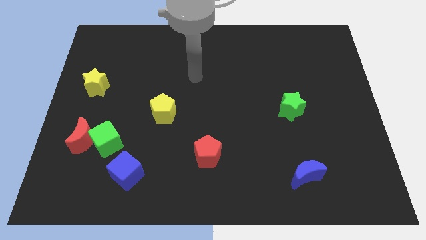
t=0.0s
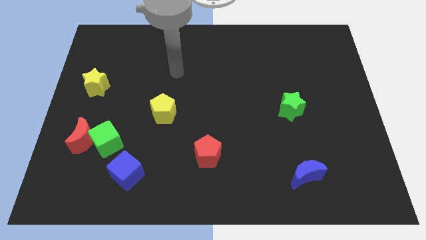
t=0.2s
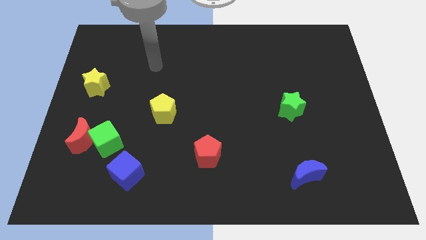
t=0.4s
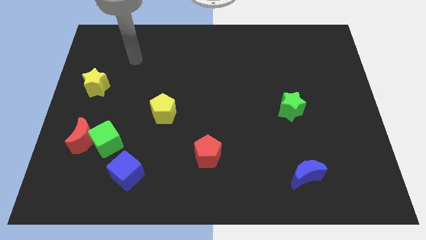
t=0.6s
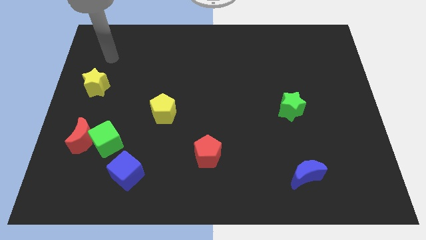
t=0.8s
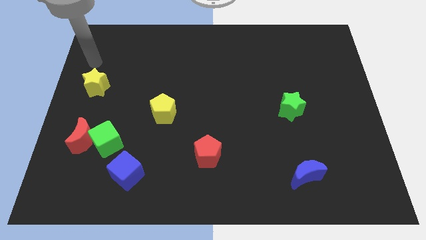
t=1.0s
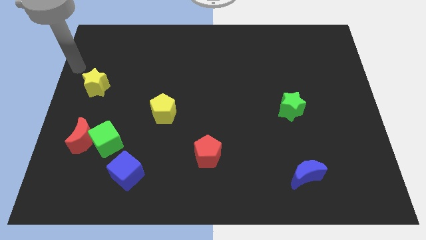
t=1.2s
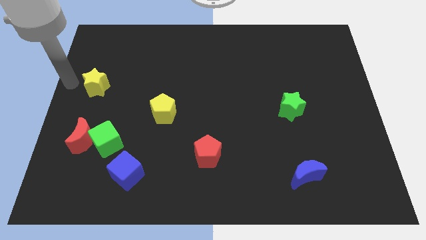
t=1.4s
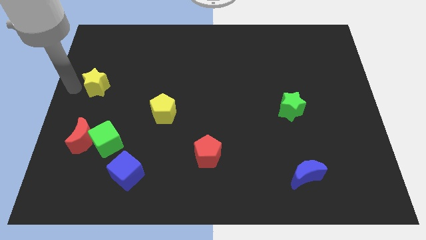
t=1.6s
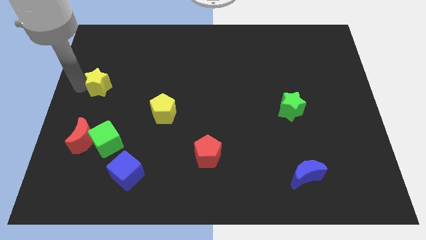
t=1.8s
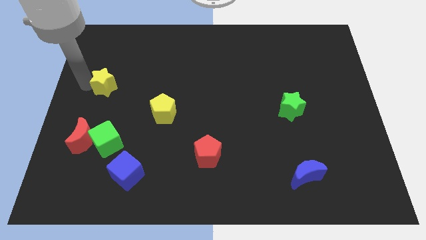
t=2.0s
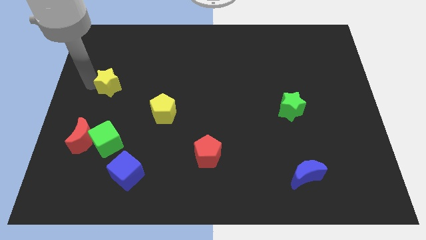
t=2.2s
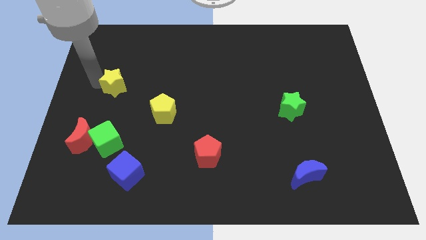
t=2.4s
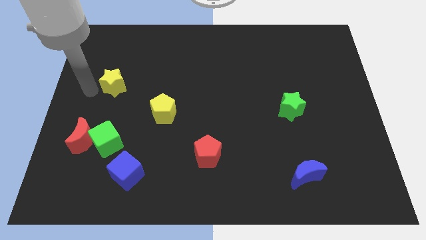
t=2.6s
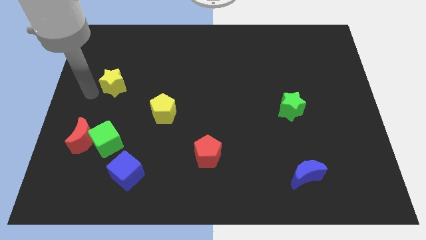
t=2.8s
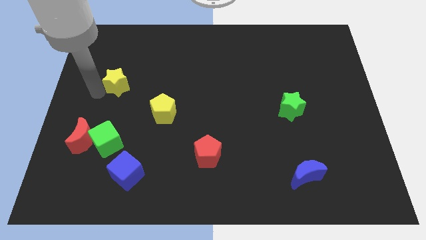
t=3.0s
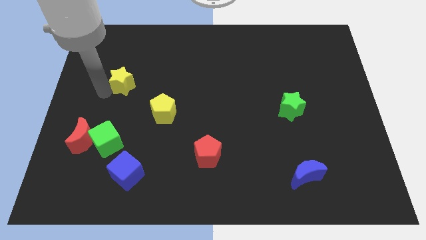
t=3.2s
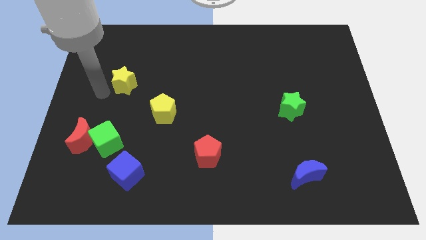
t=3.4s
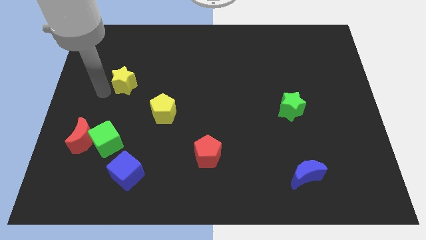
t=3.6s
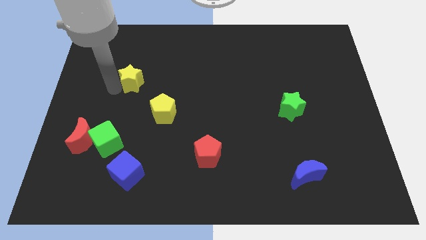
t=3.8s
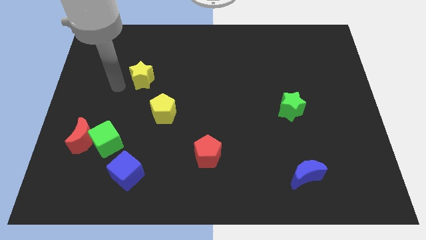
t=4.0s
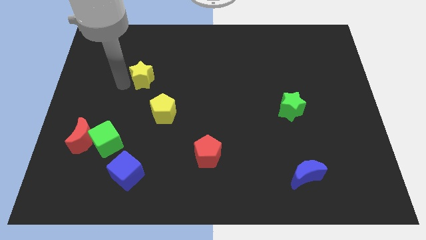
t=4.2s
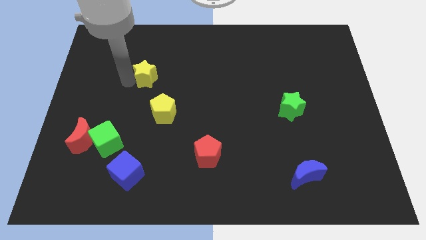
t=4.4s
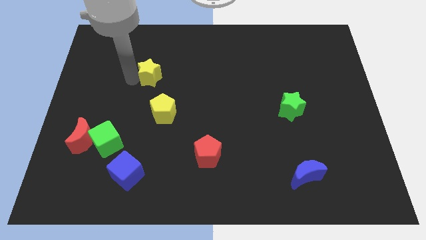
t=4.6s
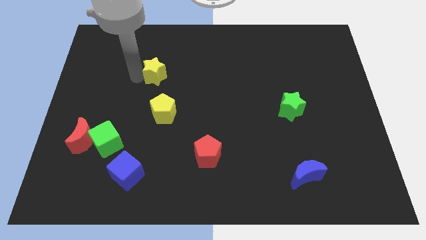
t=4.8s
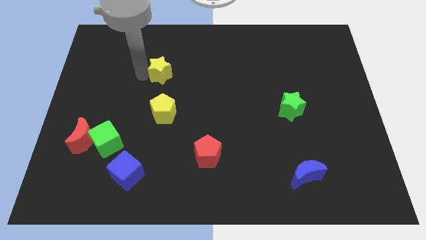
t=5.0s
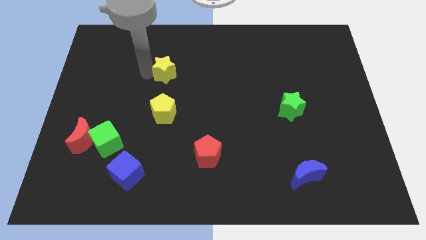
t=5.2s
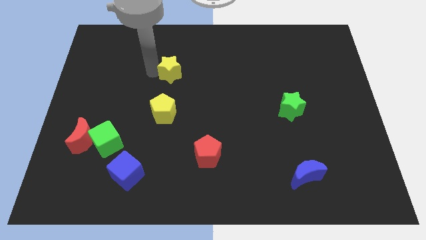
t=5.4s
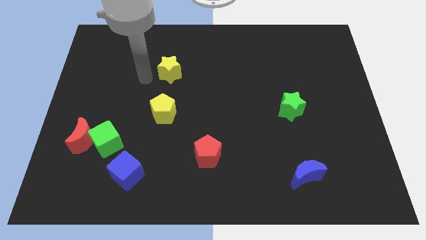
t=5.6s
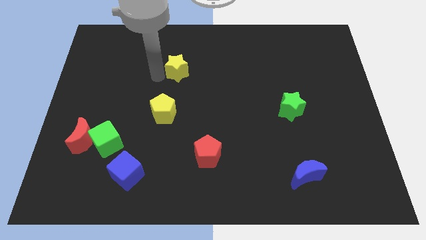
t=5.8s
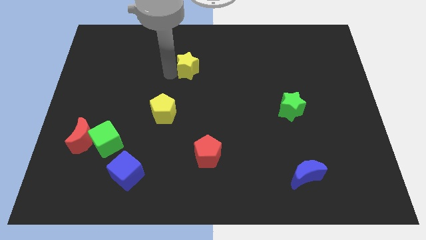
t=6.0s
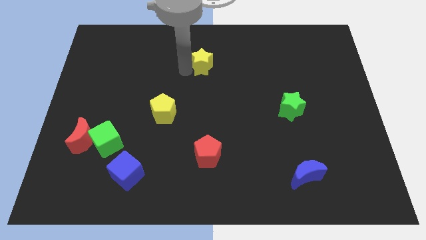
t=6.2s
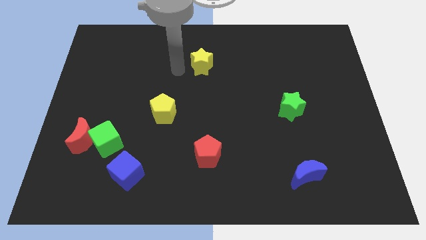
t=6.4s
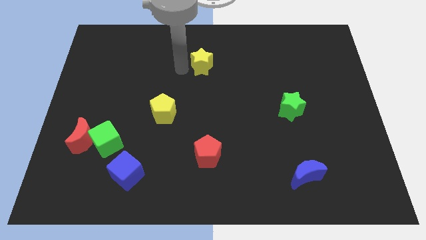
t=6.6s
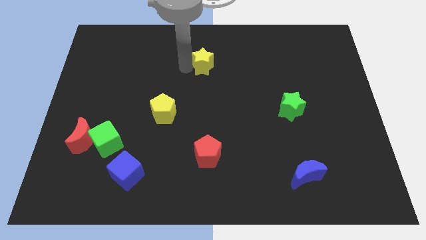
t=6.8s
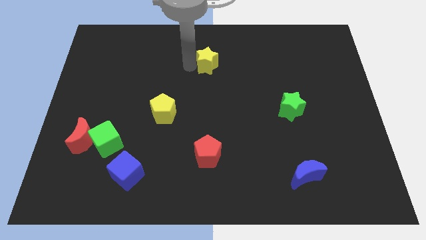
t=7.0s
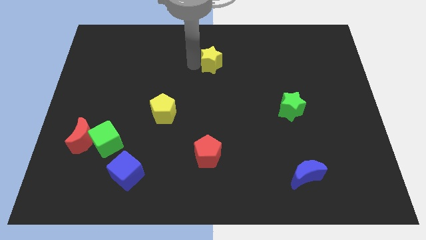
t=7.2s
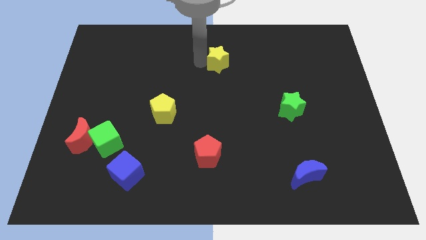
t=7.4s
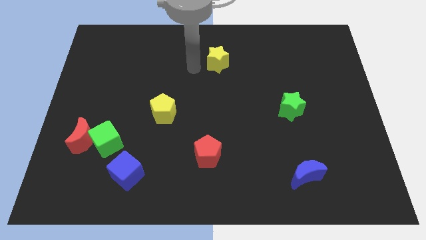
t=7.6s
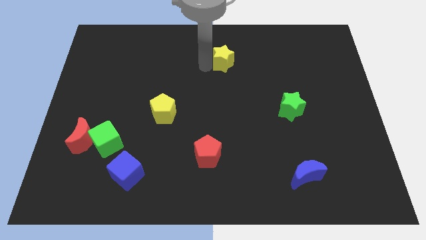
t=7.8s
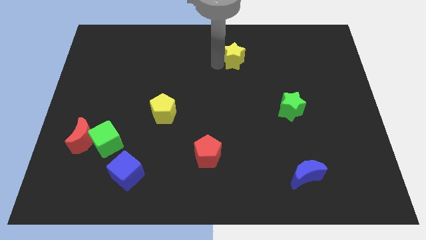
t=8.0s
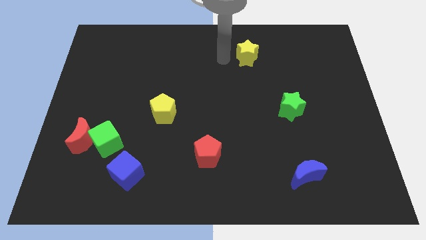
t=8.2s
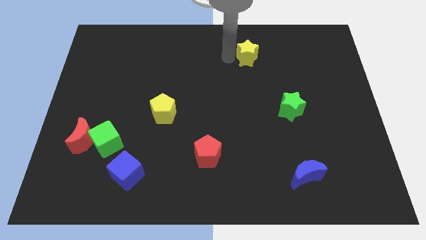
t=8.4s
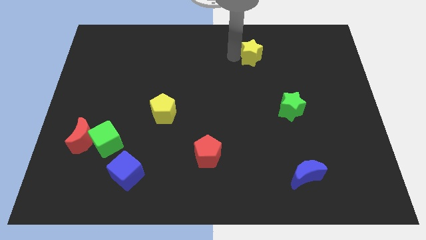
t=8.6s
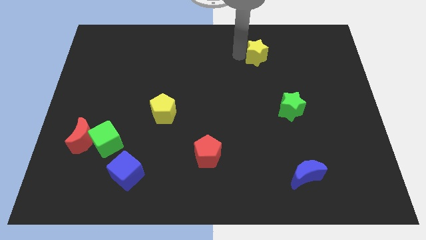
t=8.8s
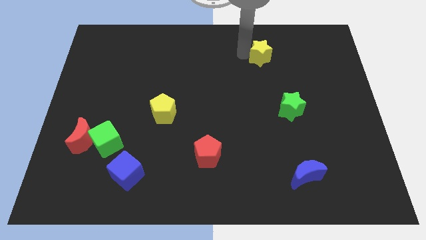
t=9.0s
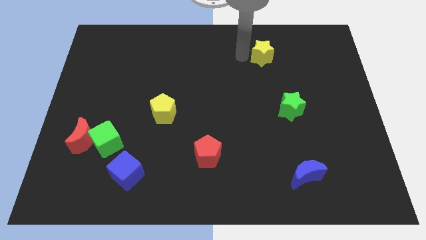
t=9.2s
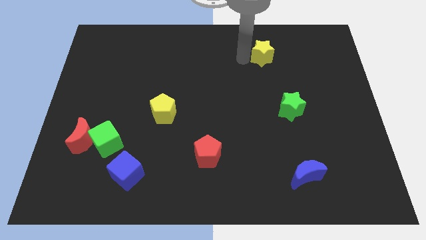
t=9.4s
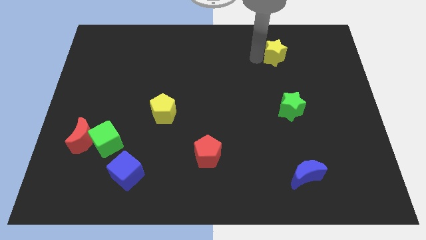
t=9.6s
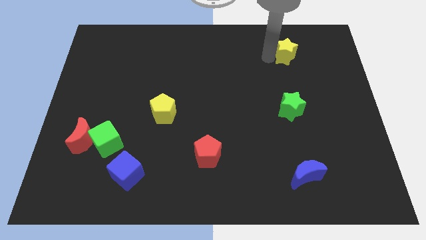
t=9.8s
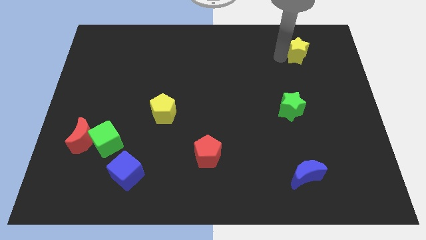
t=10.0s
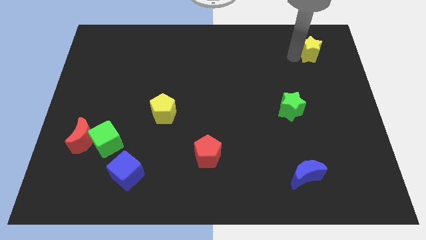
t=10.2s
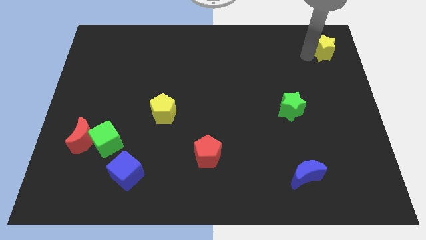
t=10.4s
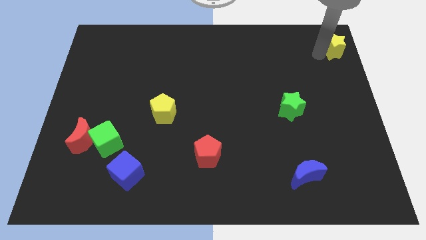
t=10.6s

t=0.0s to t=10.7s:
slide the yellow star to the top right

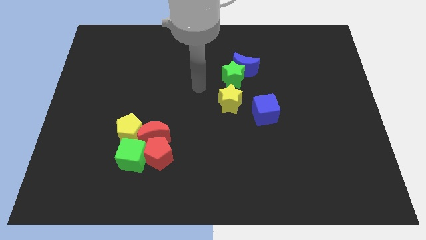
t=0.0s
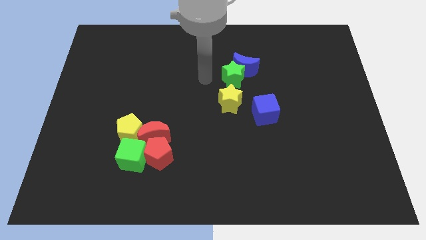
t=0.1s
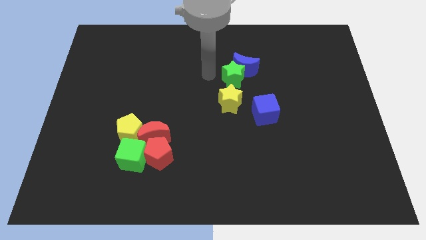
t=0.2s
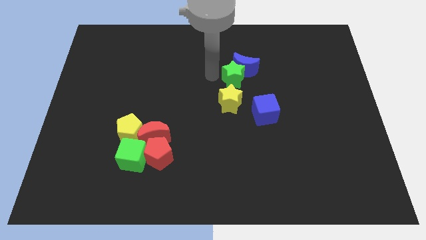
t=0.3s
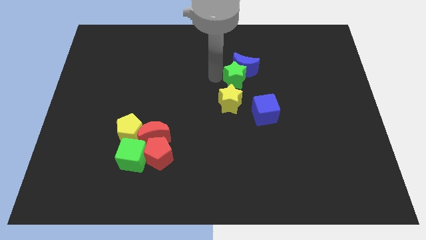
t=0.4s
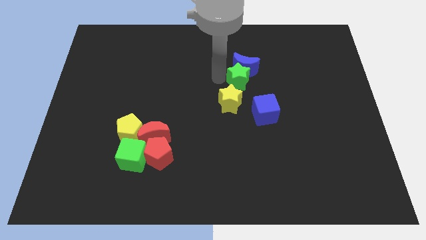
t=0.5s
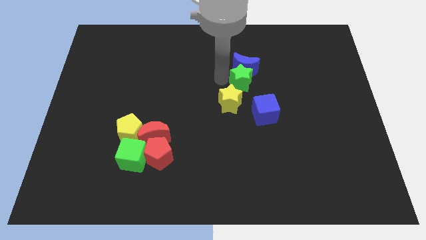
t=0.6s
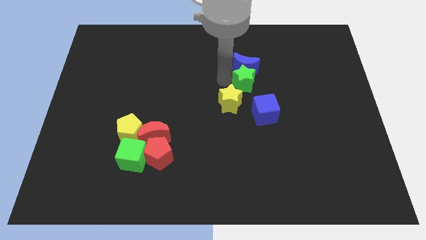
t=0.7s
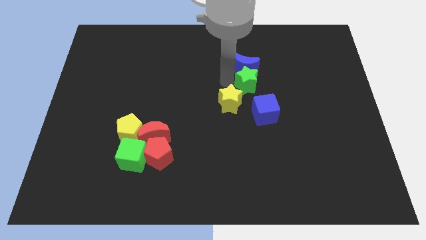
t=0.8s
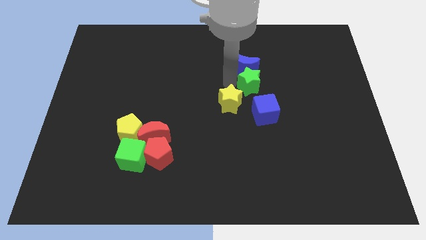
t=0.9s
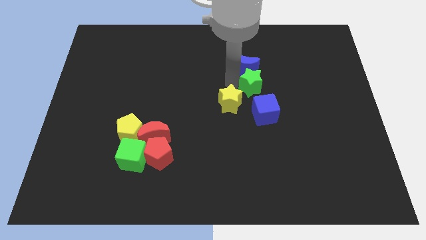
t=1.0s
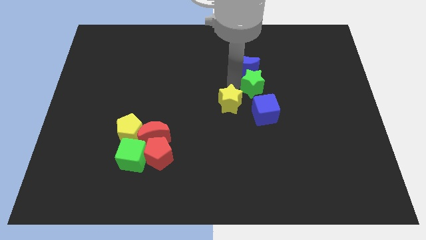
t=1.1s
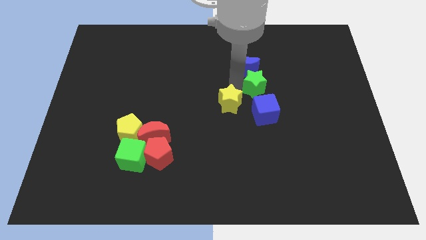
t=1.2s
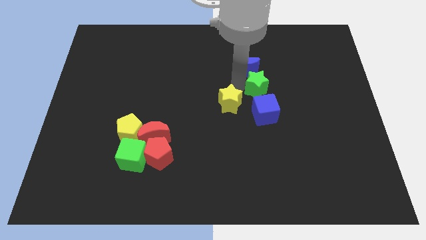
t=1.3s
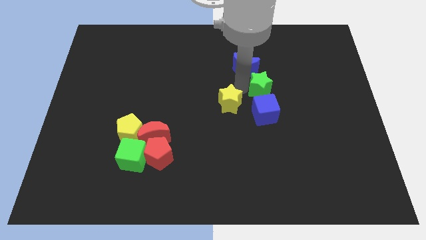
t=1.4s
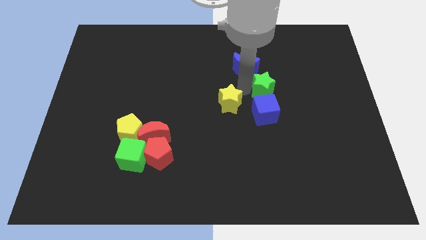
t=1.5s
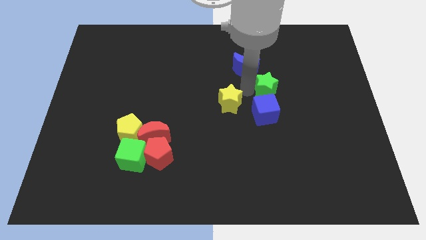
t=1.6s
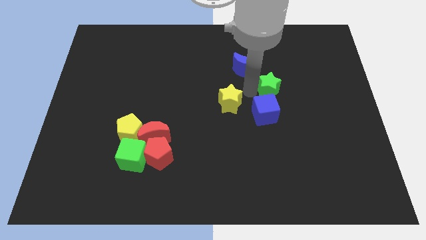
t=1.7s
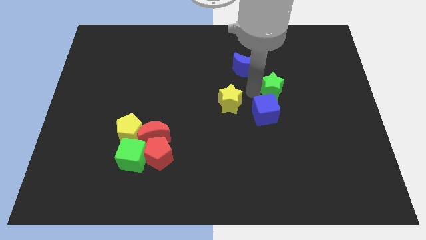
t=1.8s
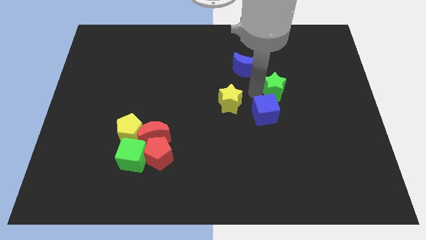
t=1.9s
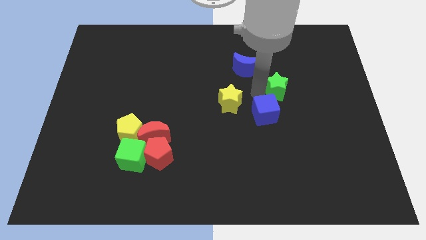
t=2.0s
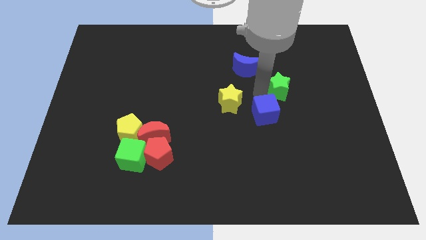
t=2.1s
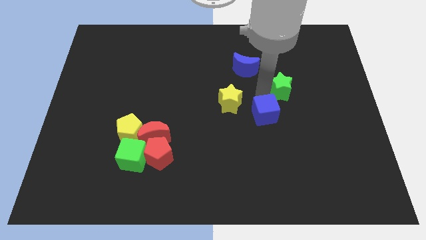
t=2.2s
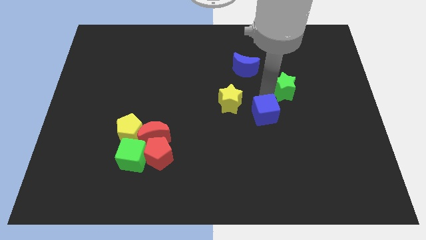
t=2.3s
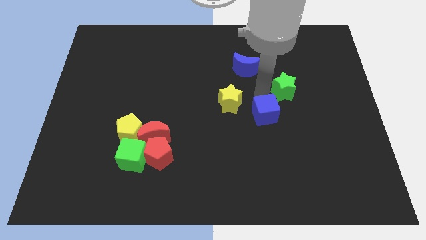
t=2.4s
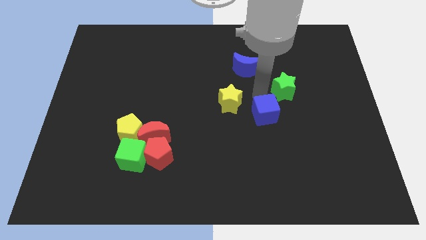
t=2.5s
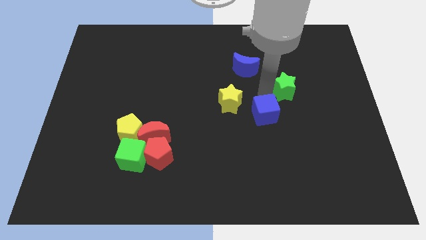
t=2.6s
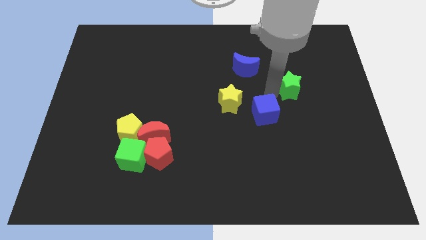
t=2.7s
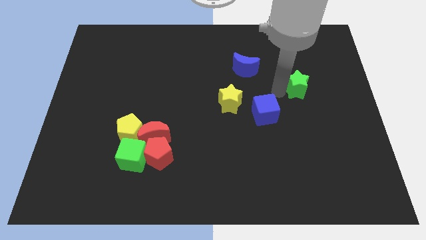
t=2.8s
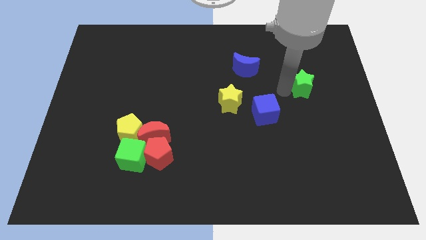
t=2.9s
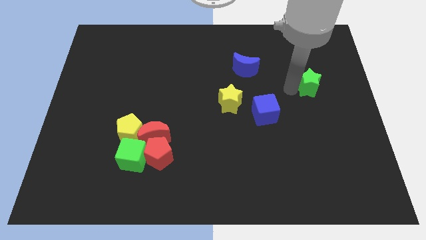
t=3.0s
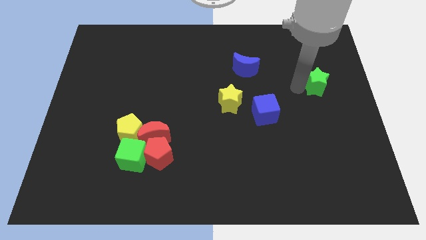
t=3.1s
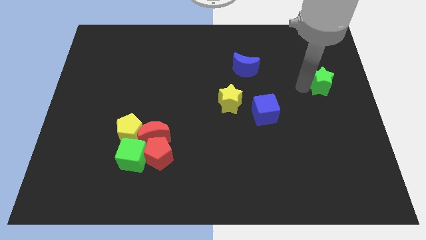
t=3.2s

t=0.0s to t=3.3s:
move the green star to the center right
